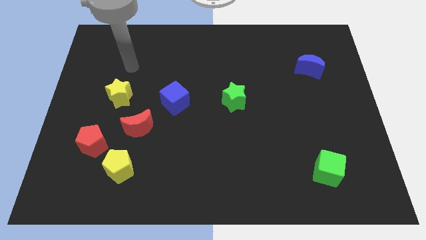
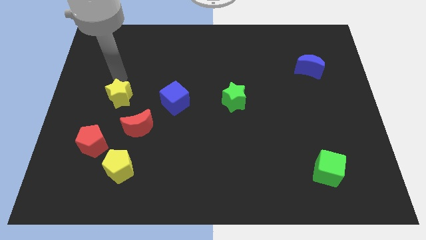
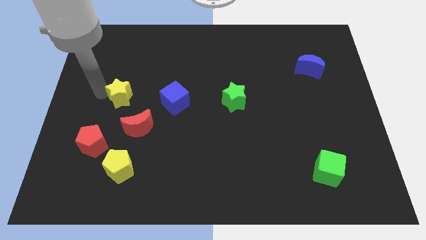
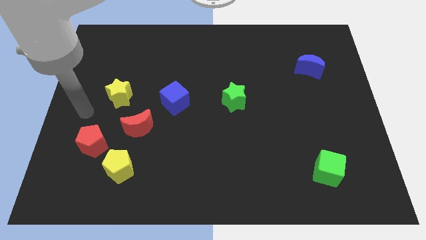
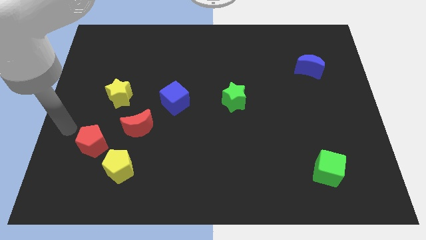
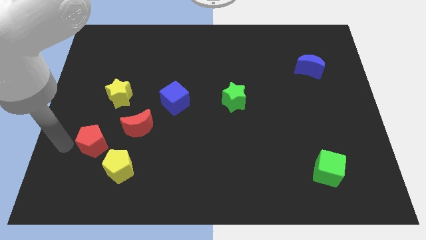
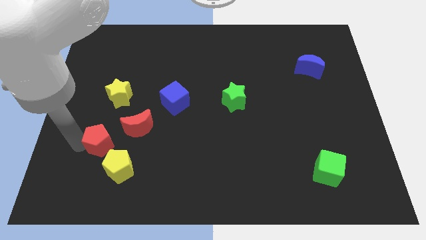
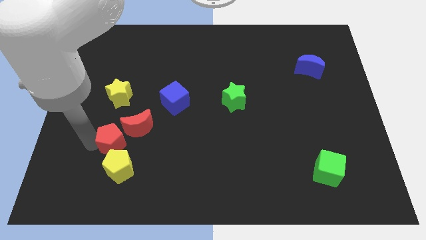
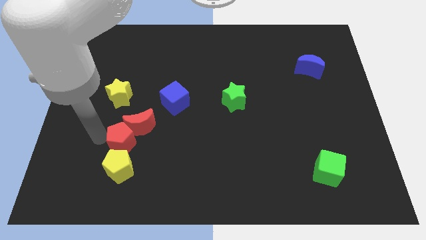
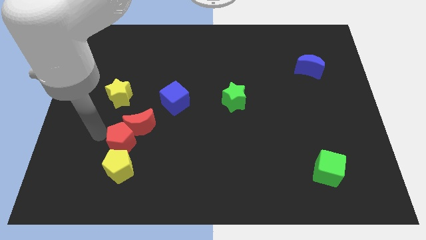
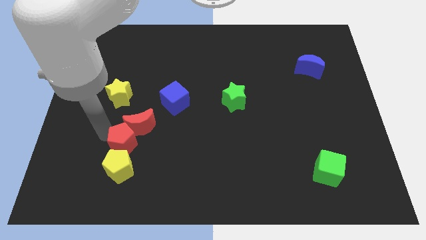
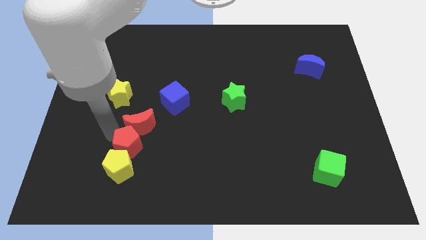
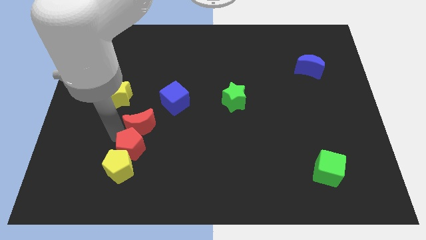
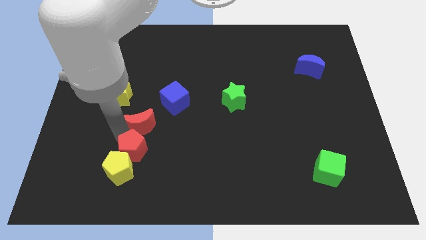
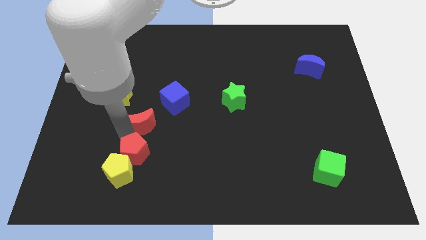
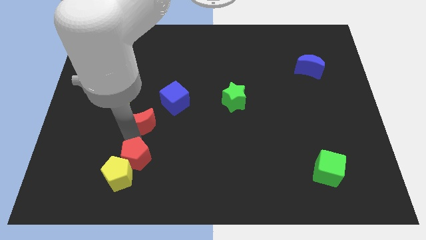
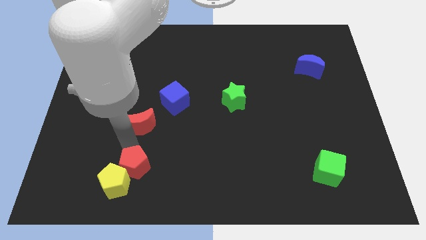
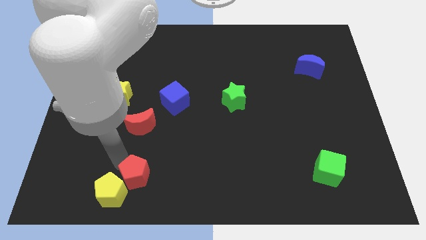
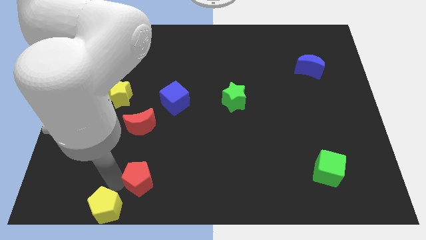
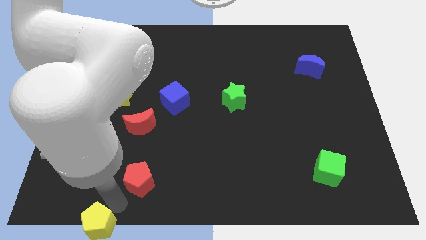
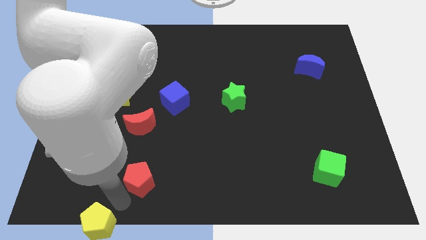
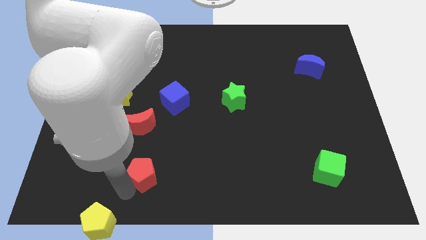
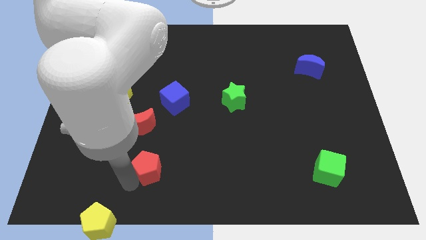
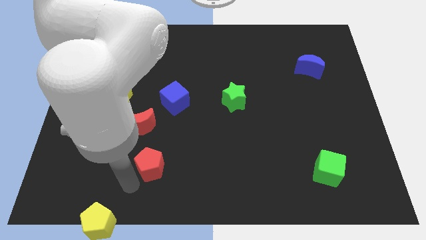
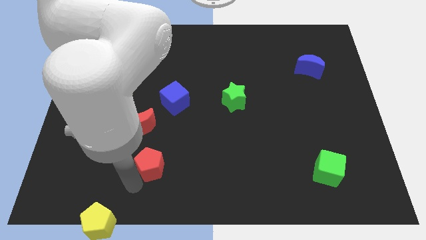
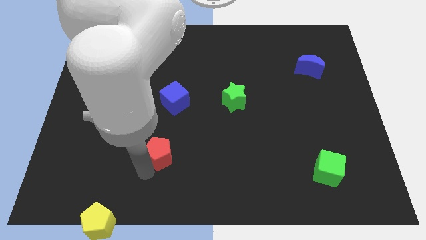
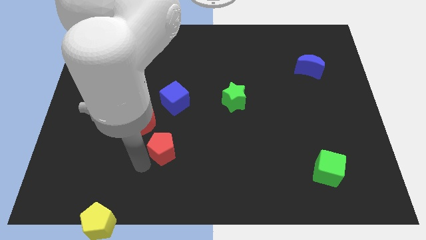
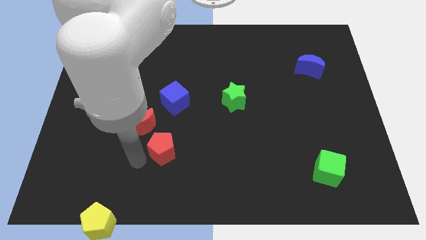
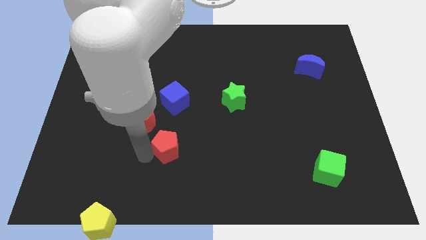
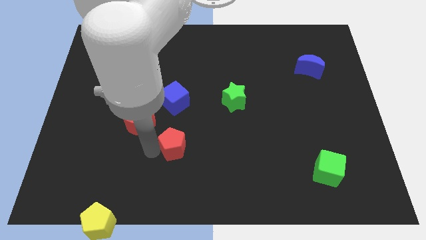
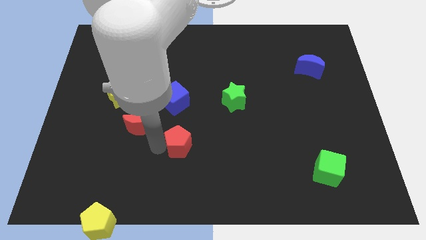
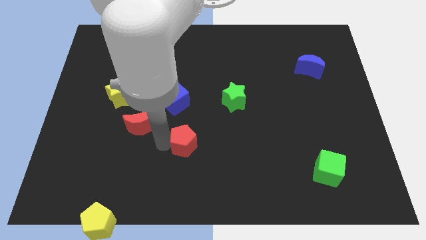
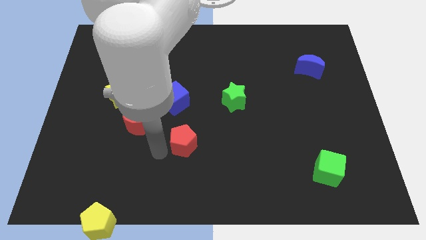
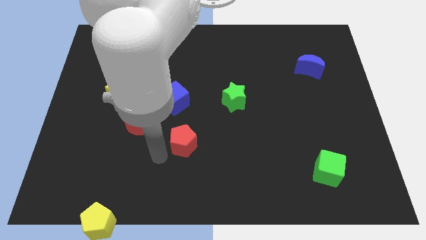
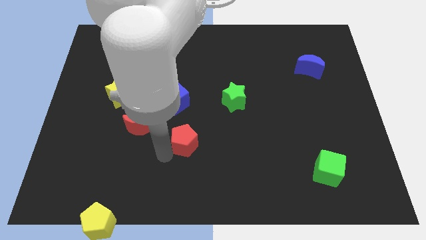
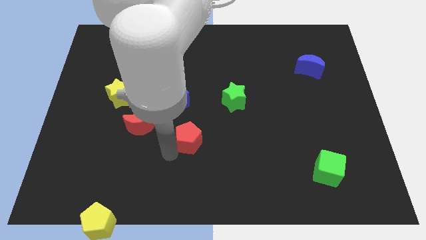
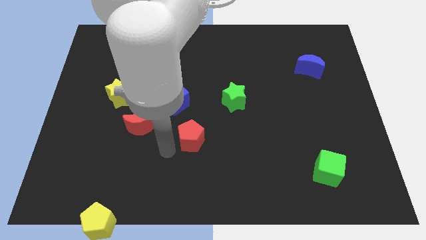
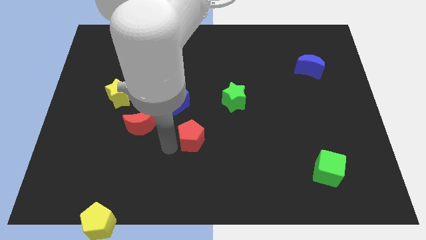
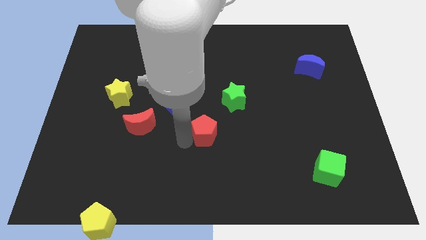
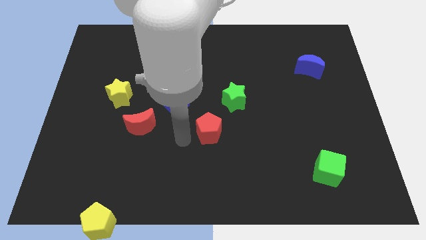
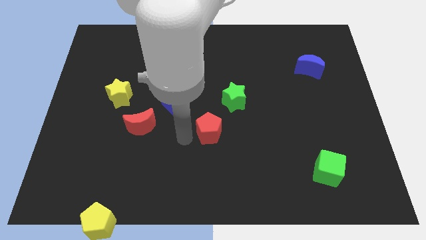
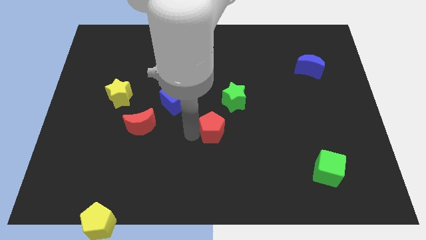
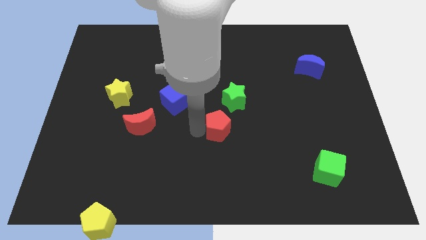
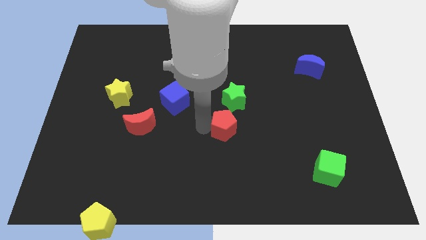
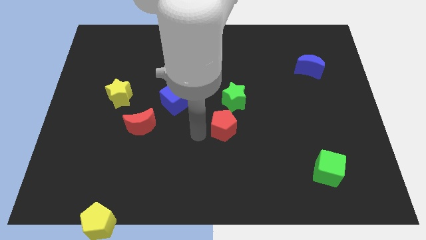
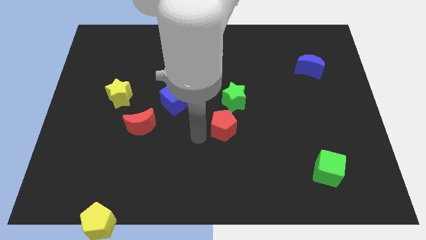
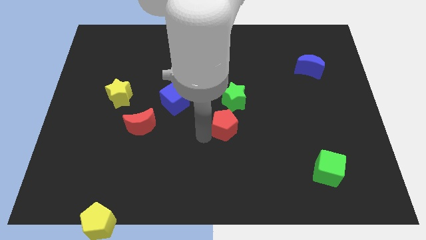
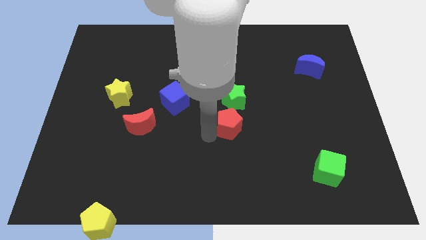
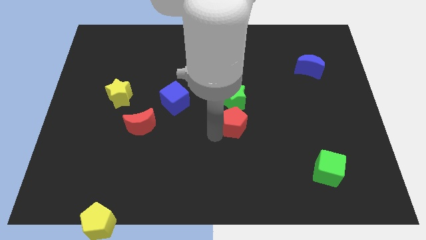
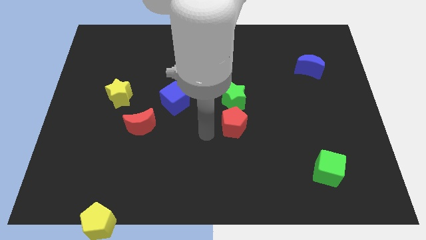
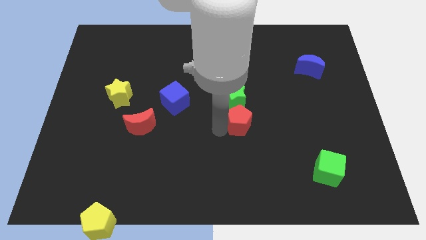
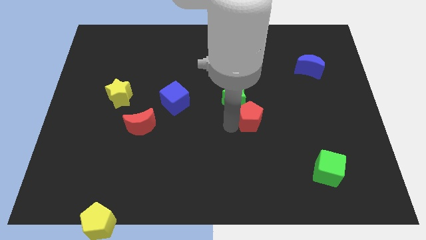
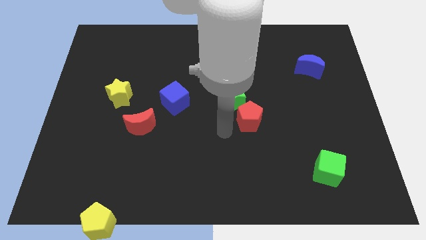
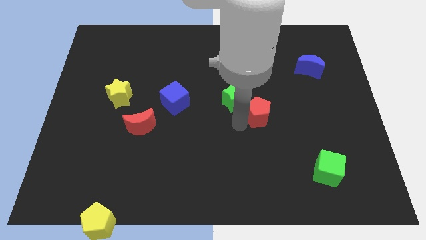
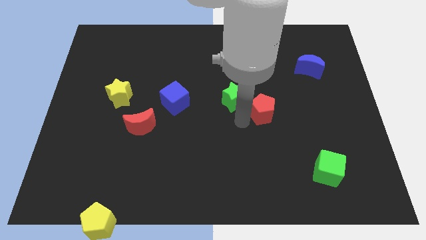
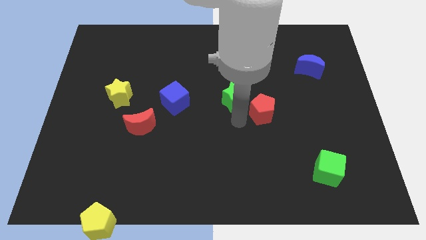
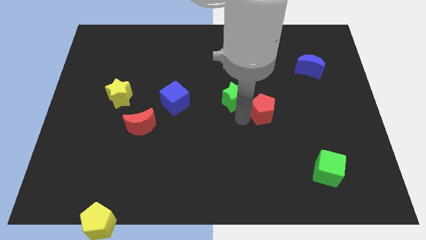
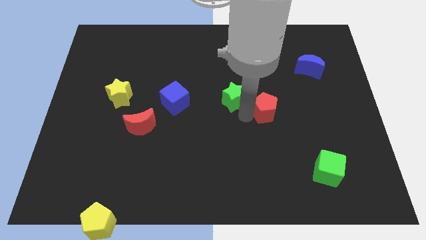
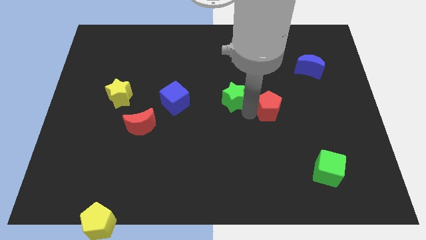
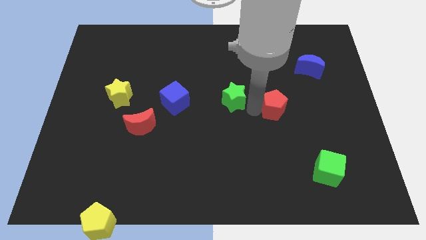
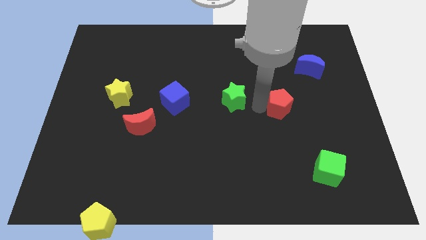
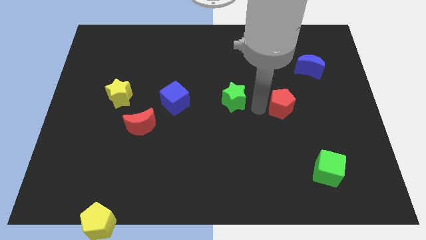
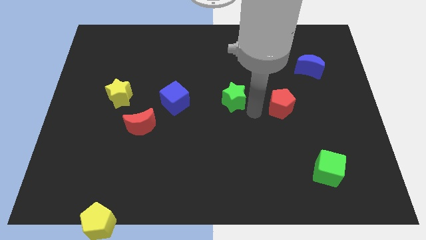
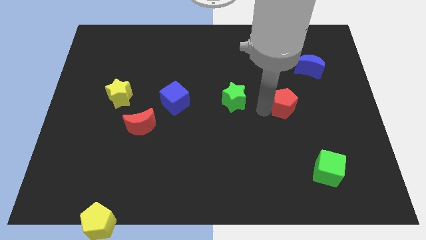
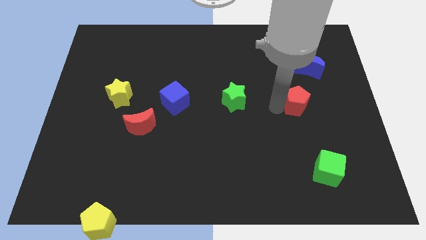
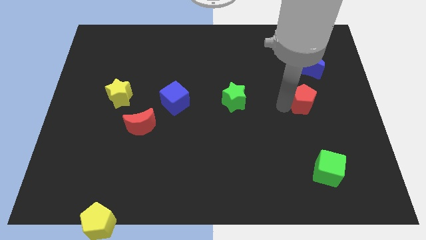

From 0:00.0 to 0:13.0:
put the red pentagon to the bottom side of the blue moon
